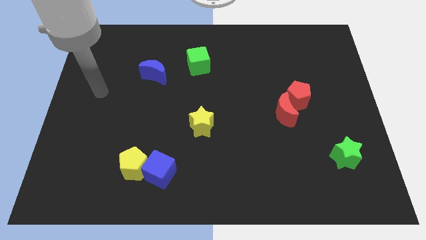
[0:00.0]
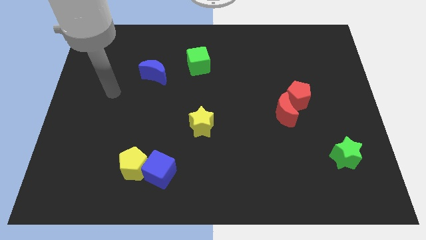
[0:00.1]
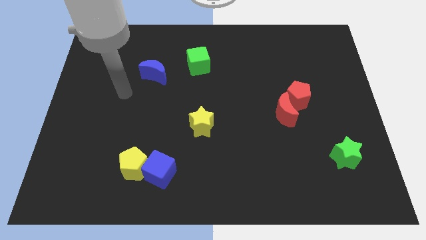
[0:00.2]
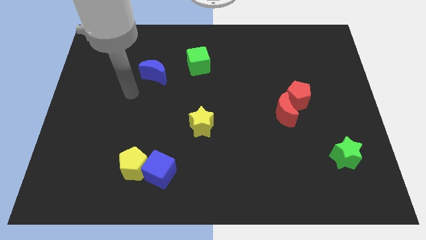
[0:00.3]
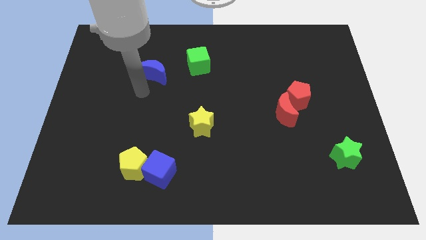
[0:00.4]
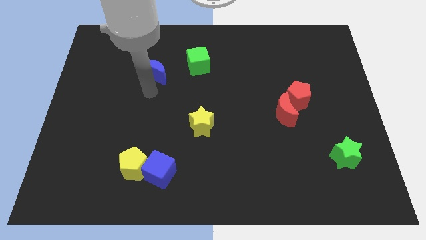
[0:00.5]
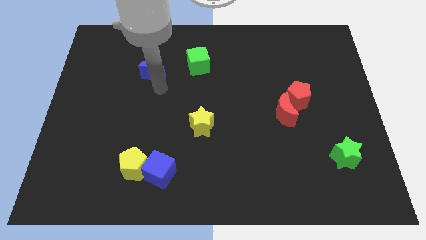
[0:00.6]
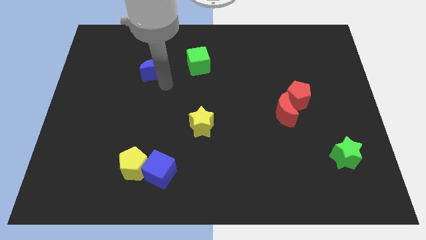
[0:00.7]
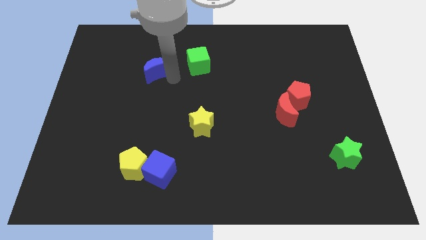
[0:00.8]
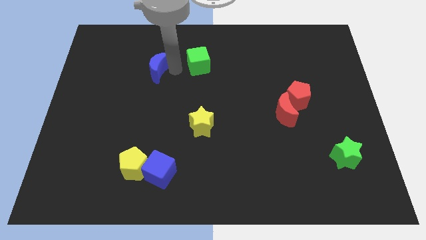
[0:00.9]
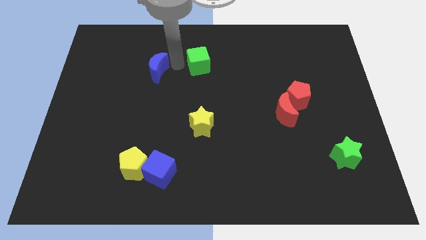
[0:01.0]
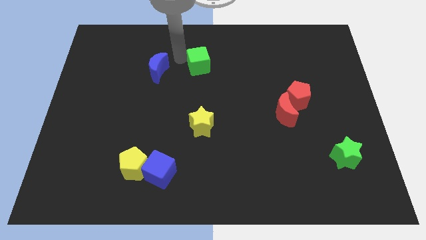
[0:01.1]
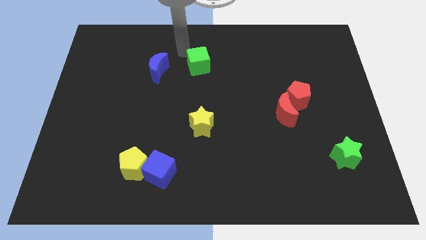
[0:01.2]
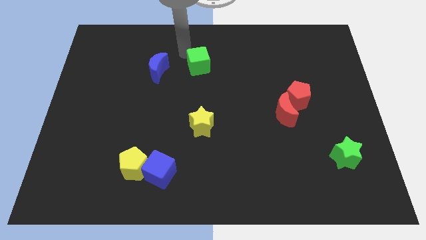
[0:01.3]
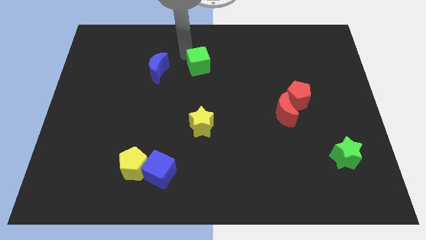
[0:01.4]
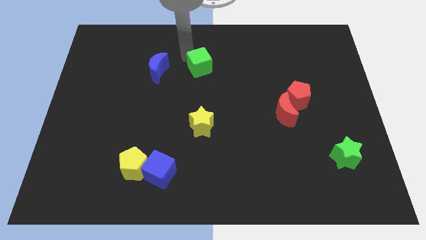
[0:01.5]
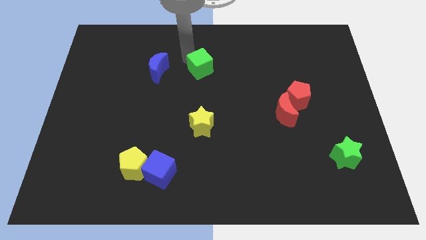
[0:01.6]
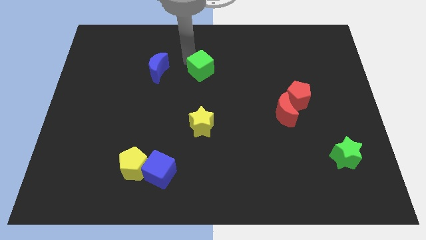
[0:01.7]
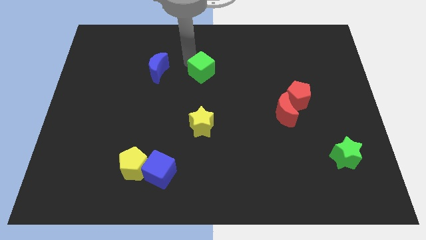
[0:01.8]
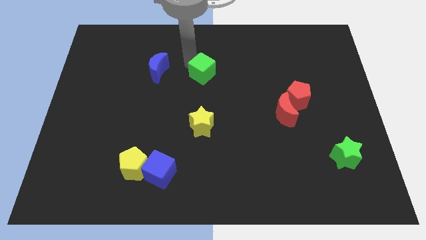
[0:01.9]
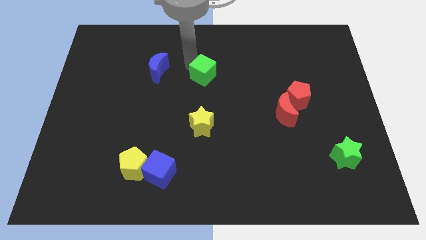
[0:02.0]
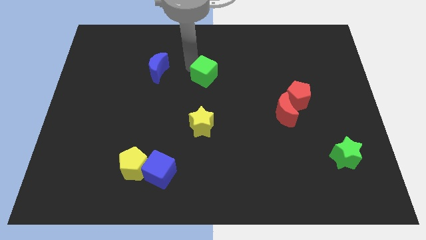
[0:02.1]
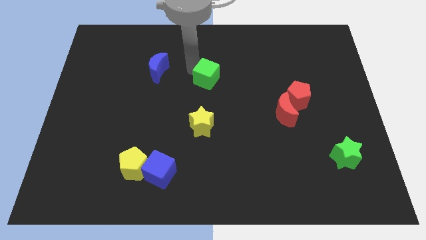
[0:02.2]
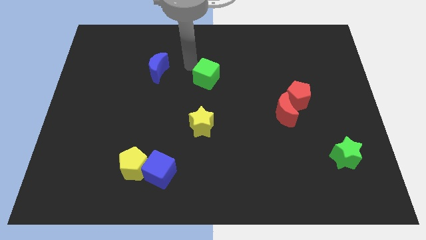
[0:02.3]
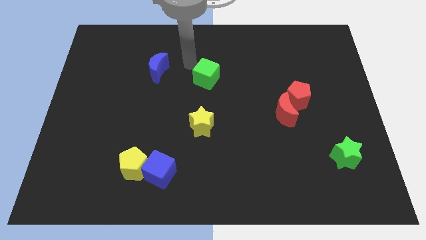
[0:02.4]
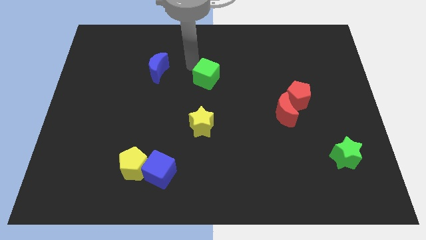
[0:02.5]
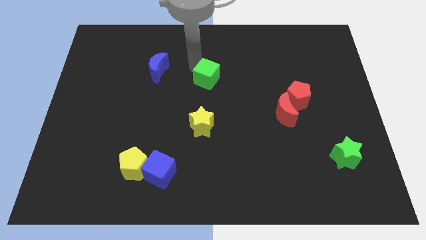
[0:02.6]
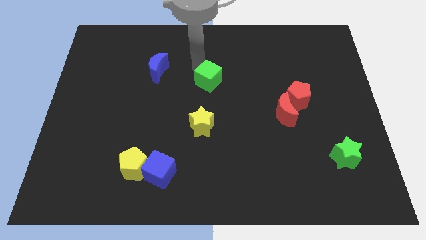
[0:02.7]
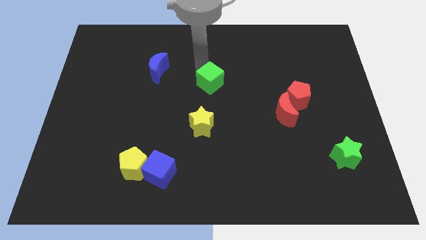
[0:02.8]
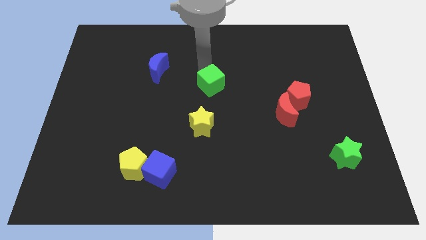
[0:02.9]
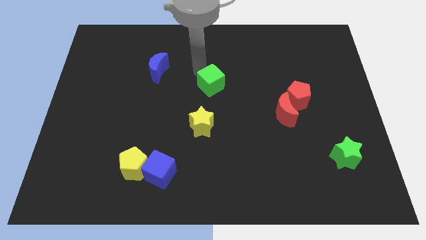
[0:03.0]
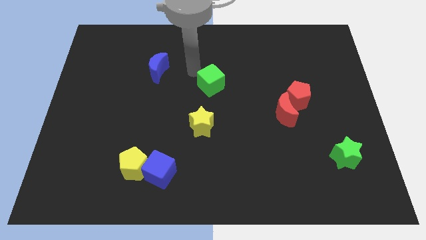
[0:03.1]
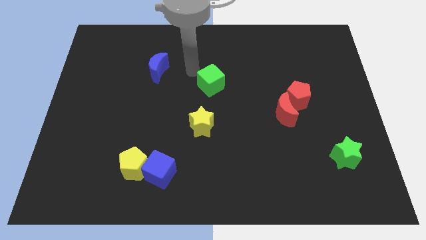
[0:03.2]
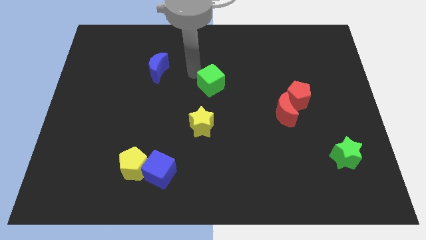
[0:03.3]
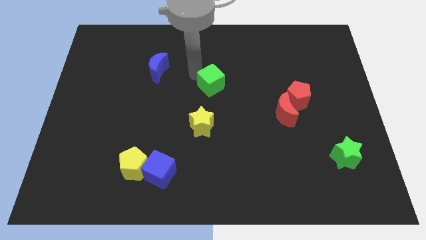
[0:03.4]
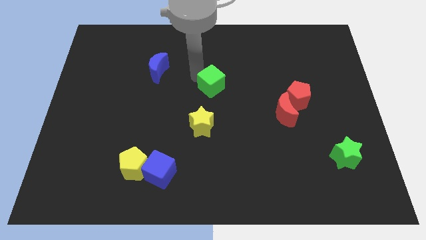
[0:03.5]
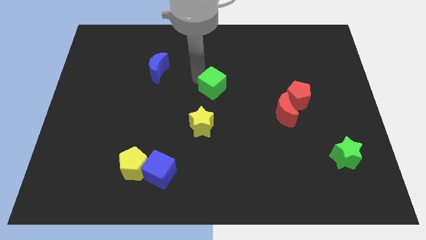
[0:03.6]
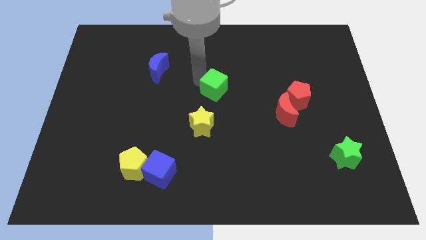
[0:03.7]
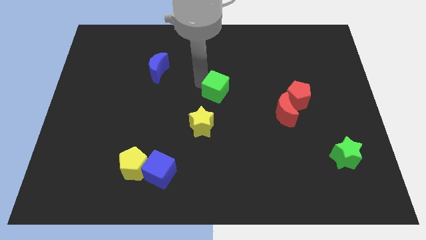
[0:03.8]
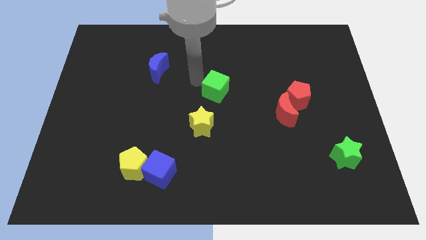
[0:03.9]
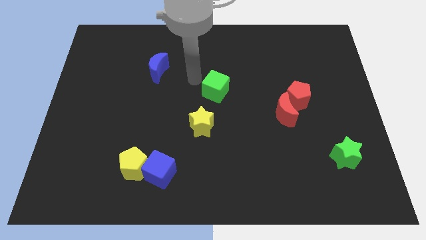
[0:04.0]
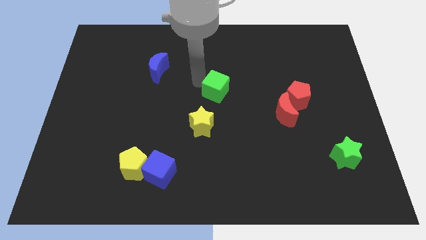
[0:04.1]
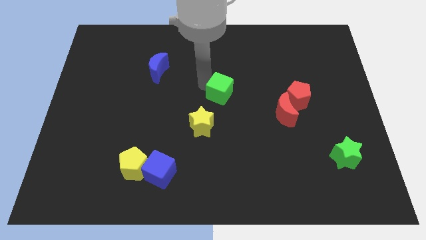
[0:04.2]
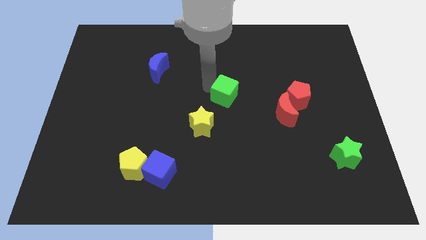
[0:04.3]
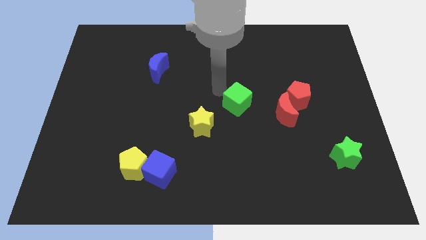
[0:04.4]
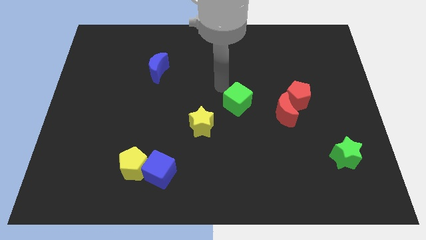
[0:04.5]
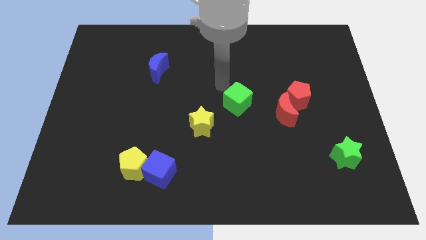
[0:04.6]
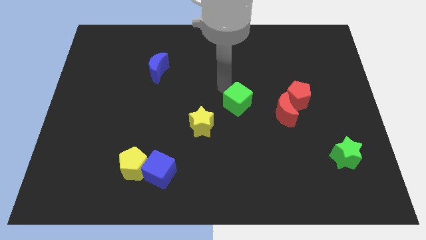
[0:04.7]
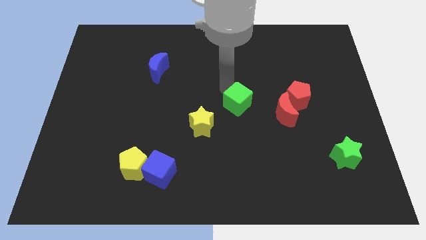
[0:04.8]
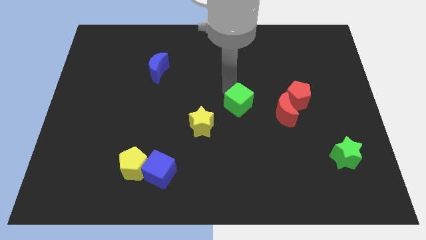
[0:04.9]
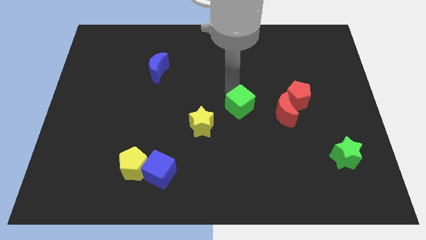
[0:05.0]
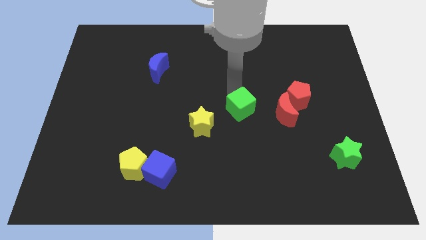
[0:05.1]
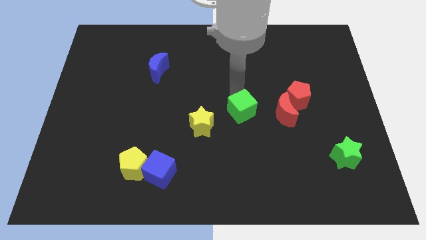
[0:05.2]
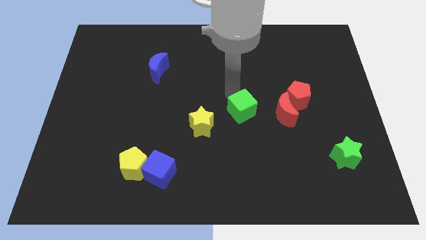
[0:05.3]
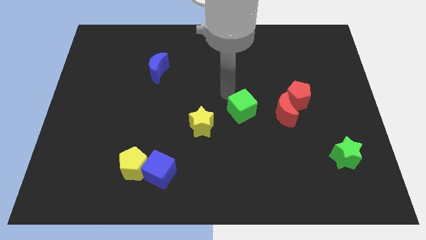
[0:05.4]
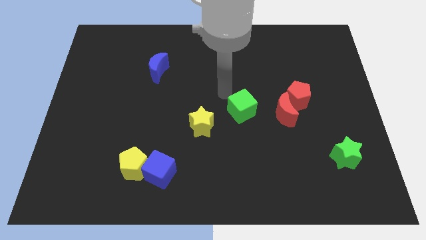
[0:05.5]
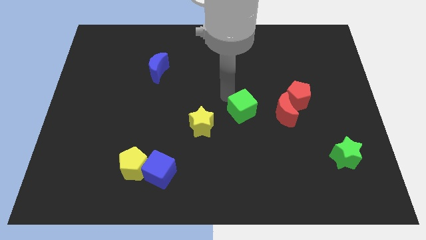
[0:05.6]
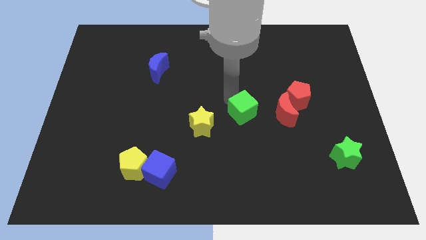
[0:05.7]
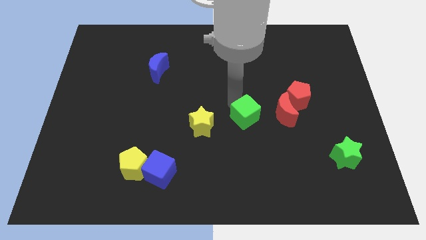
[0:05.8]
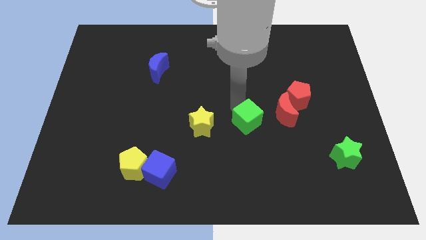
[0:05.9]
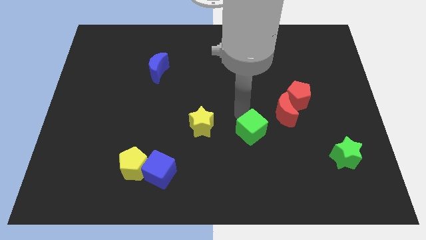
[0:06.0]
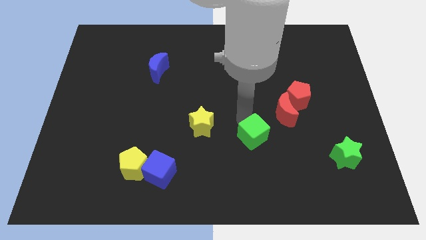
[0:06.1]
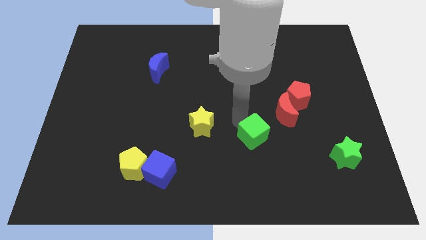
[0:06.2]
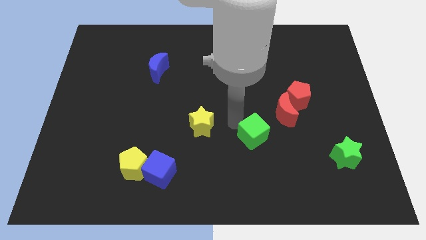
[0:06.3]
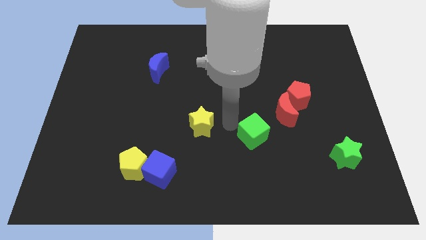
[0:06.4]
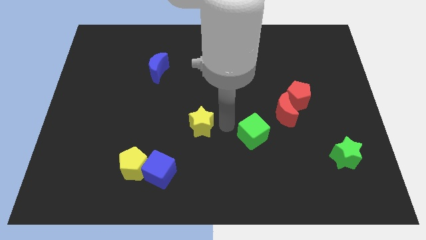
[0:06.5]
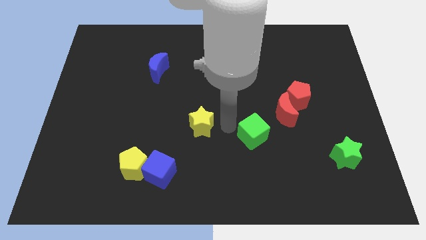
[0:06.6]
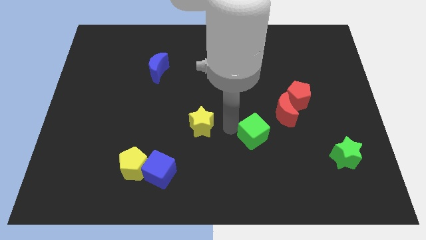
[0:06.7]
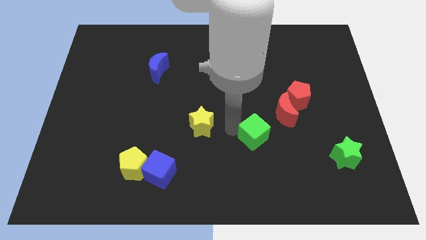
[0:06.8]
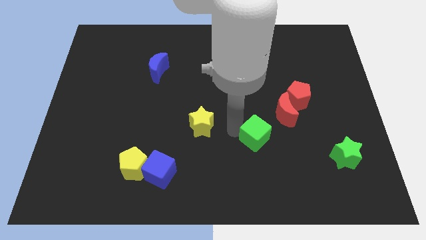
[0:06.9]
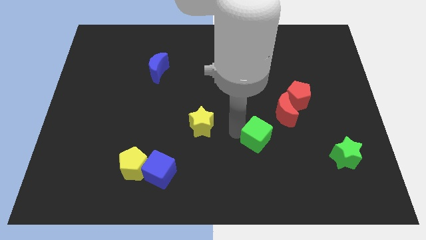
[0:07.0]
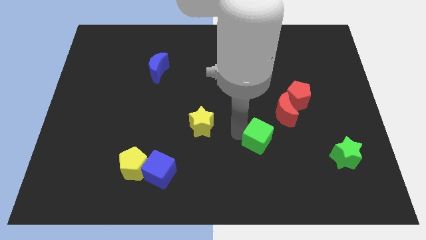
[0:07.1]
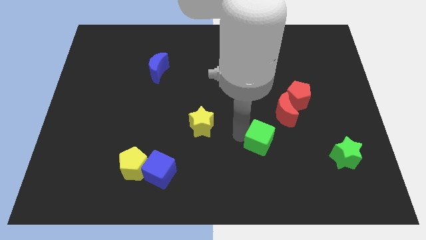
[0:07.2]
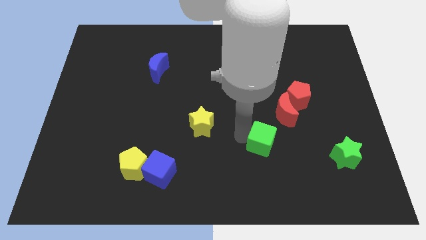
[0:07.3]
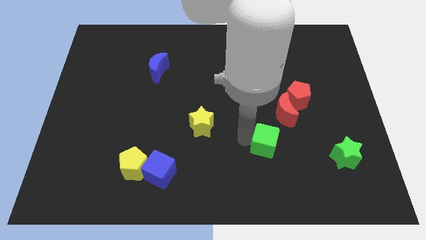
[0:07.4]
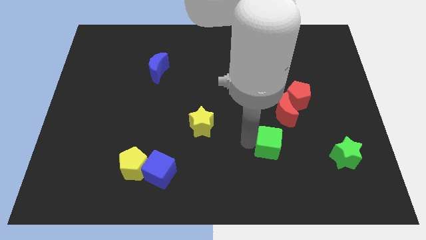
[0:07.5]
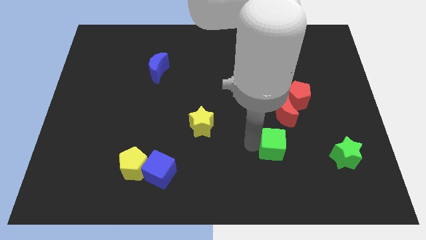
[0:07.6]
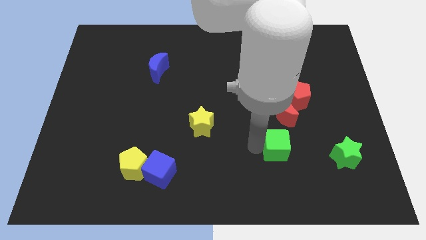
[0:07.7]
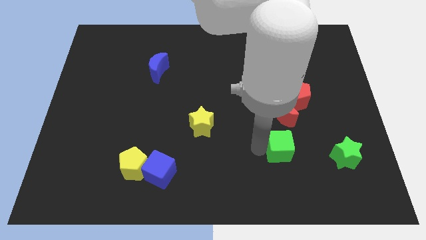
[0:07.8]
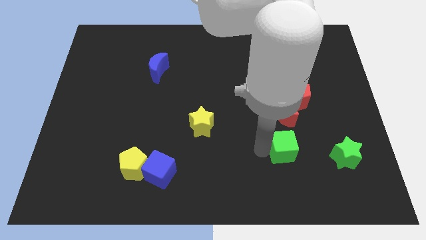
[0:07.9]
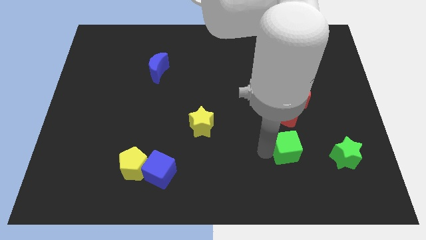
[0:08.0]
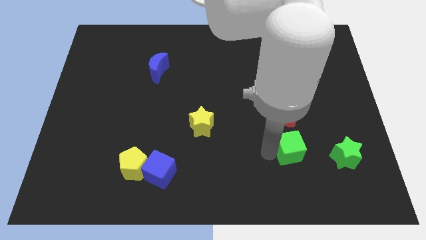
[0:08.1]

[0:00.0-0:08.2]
put the green cube to the bottom of the red pentagon
